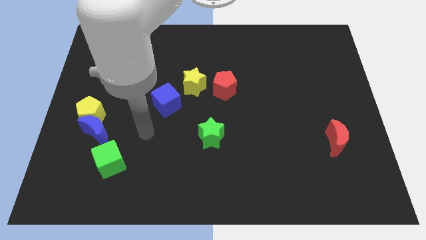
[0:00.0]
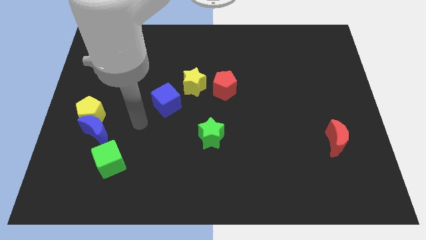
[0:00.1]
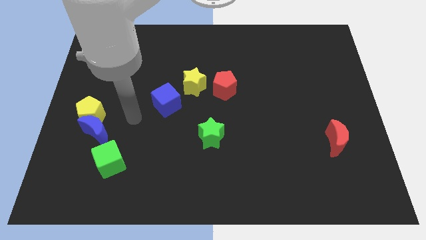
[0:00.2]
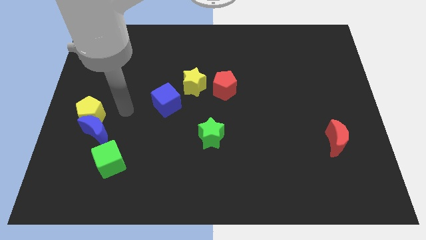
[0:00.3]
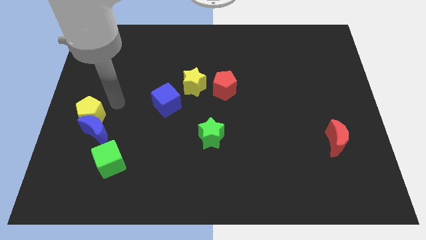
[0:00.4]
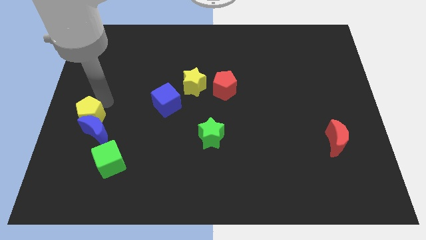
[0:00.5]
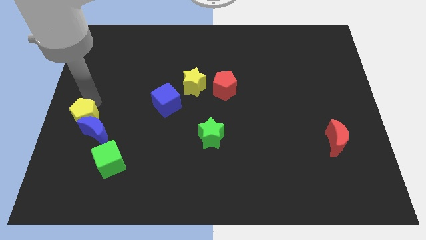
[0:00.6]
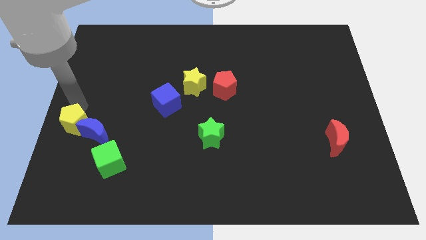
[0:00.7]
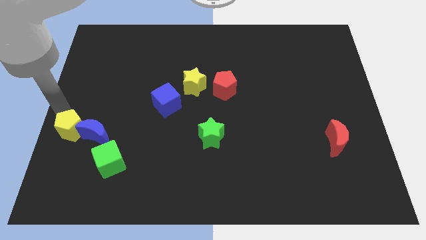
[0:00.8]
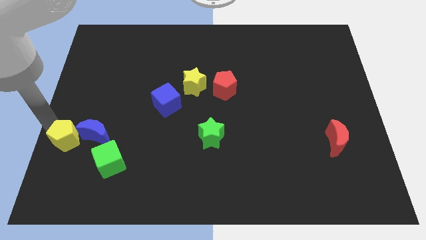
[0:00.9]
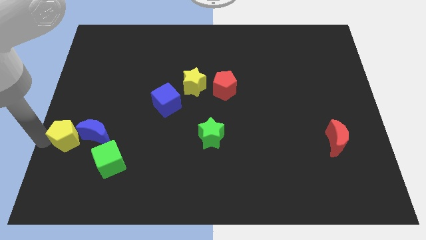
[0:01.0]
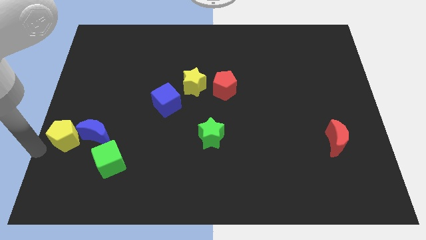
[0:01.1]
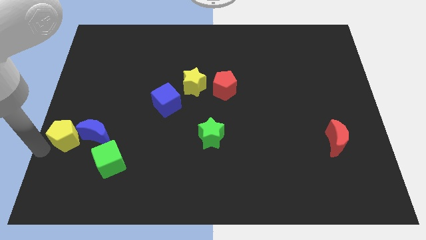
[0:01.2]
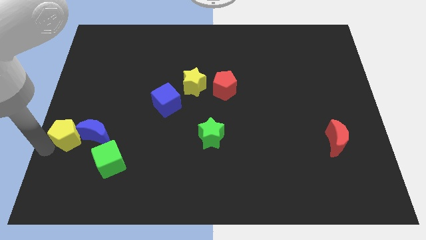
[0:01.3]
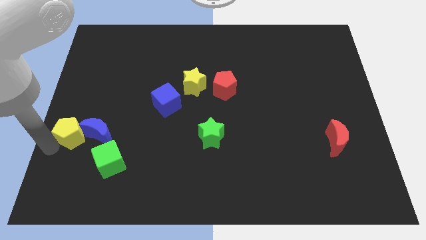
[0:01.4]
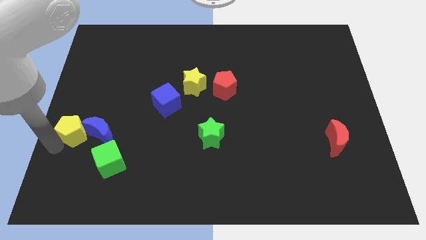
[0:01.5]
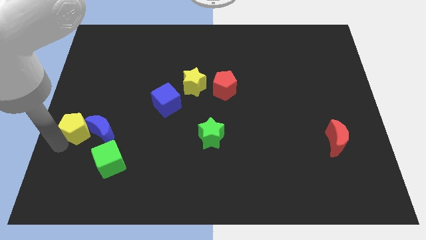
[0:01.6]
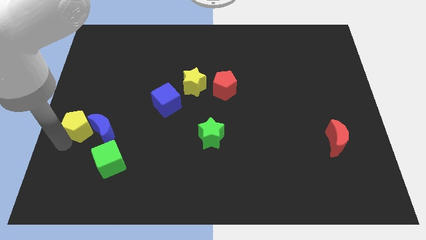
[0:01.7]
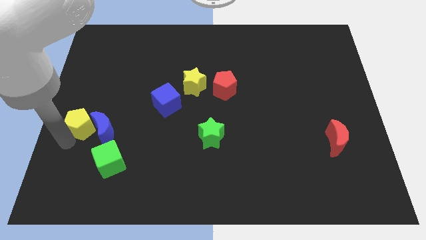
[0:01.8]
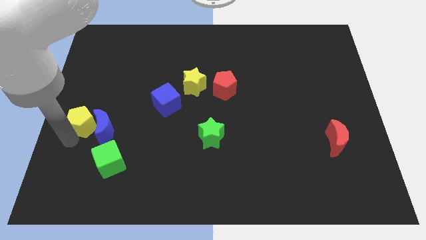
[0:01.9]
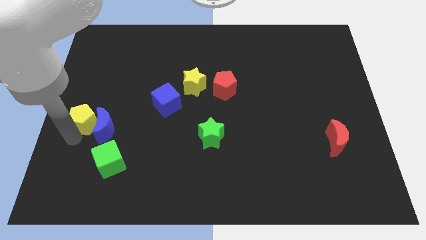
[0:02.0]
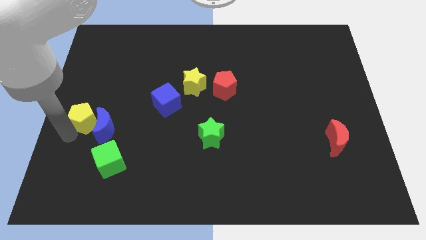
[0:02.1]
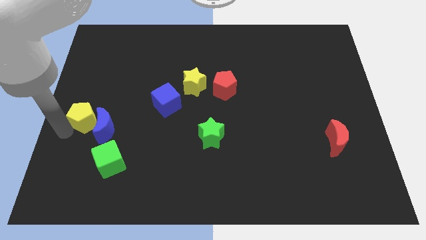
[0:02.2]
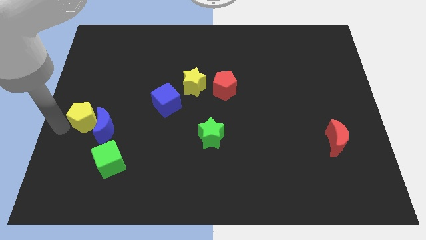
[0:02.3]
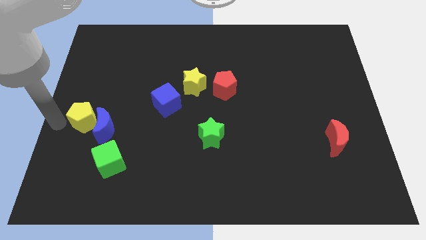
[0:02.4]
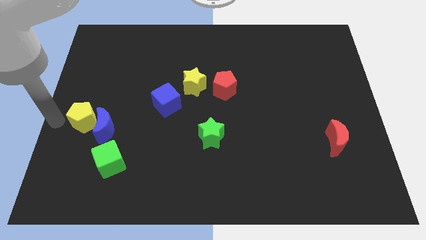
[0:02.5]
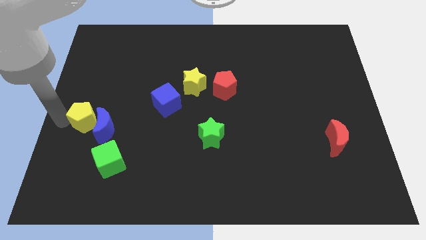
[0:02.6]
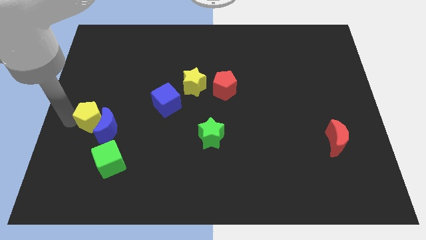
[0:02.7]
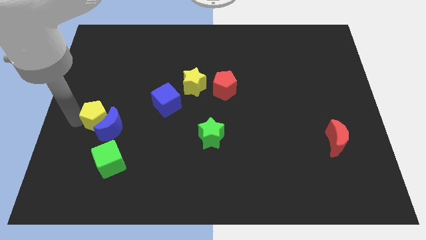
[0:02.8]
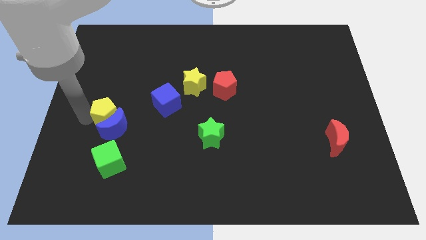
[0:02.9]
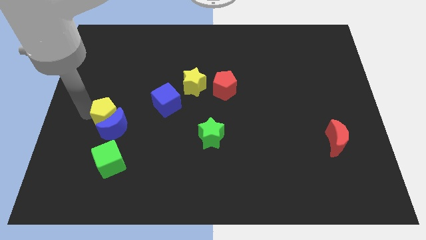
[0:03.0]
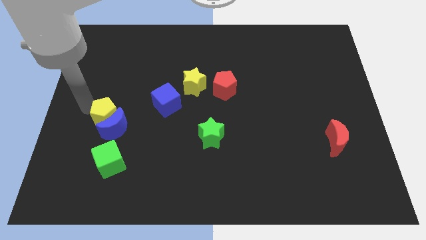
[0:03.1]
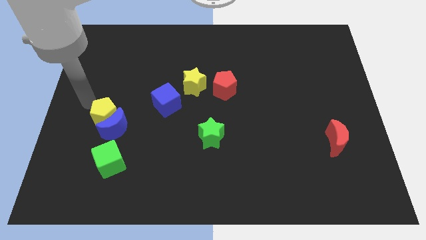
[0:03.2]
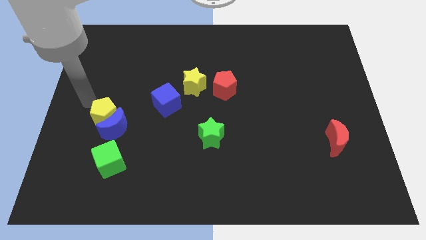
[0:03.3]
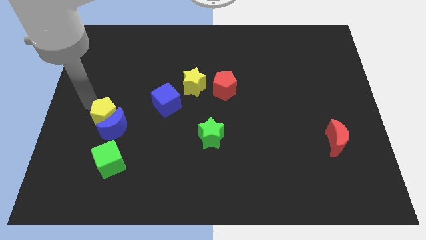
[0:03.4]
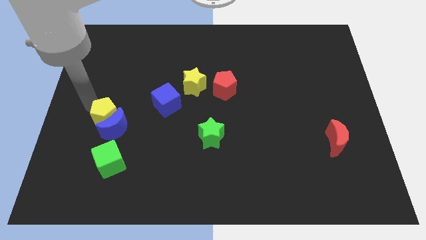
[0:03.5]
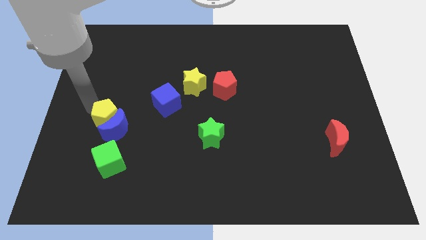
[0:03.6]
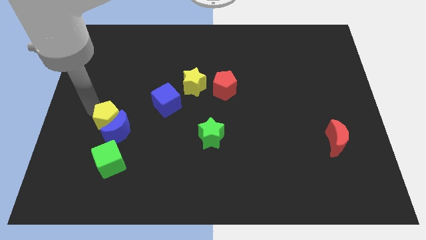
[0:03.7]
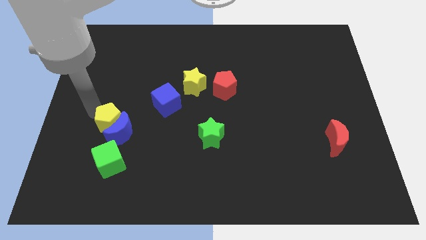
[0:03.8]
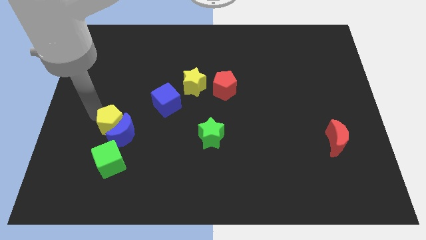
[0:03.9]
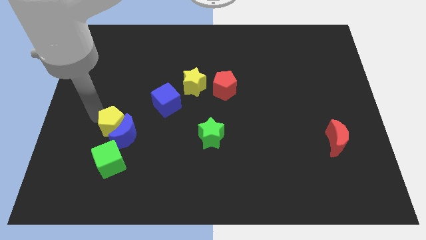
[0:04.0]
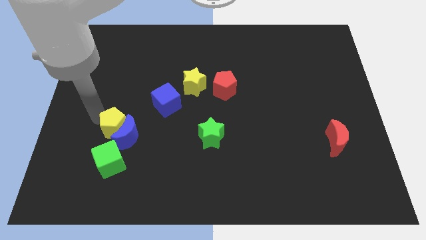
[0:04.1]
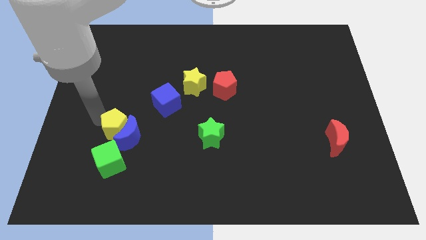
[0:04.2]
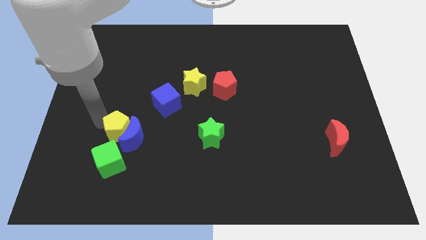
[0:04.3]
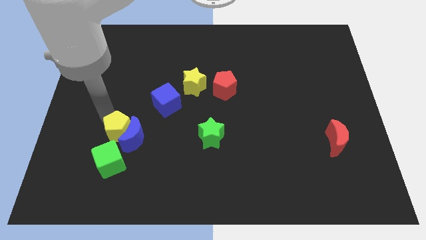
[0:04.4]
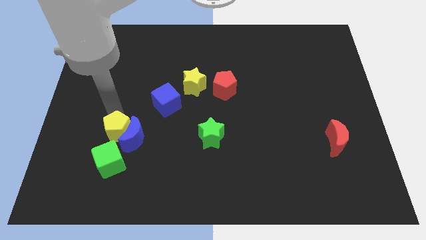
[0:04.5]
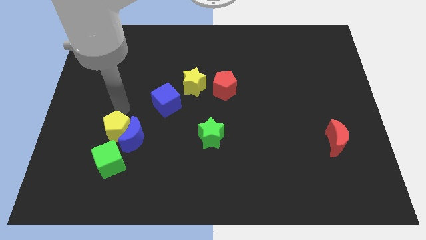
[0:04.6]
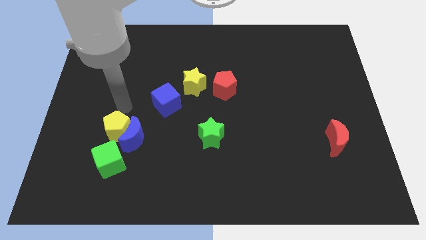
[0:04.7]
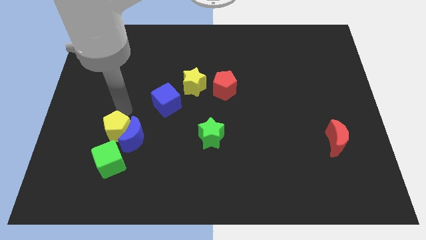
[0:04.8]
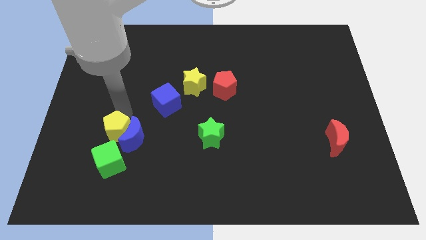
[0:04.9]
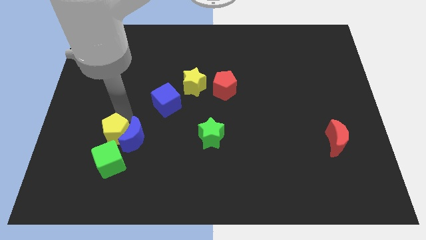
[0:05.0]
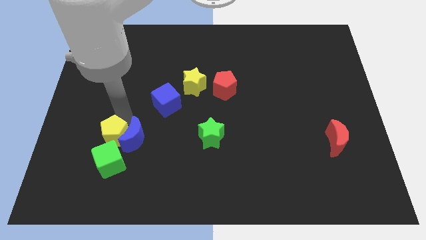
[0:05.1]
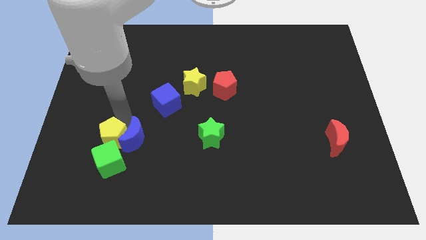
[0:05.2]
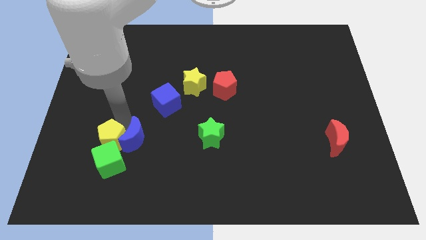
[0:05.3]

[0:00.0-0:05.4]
move the yellow pentagon next to the green cube

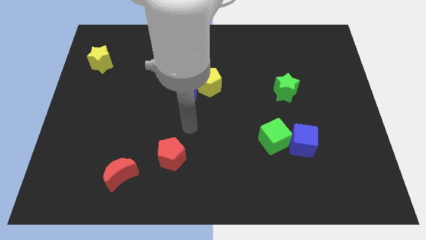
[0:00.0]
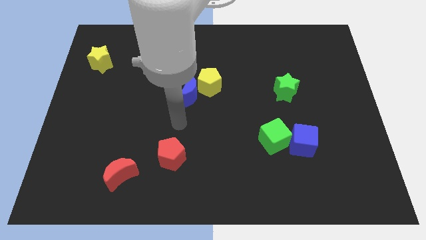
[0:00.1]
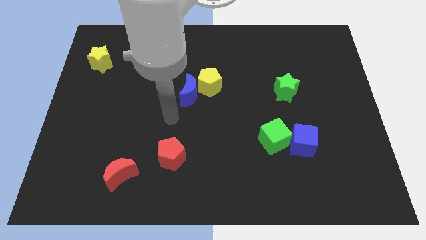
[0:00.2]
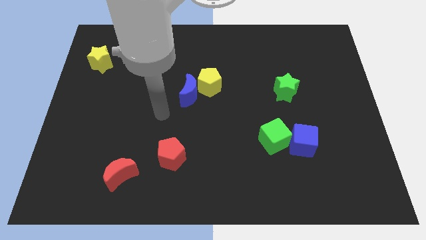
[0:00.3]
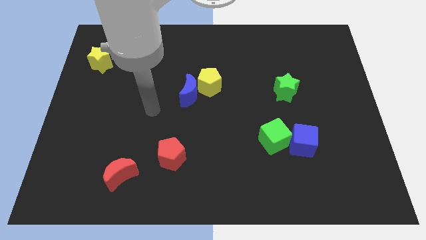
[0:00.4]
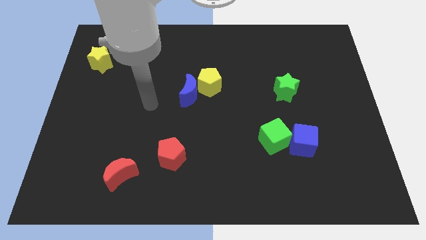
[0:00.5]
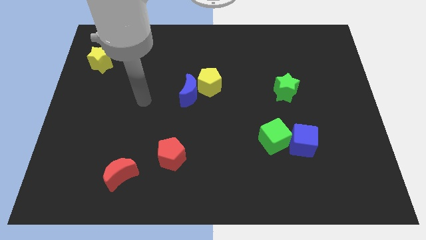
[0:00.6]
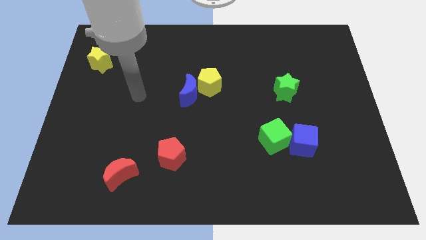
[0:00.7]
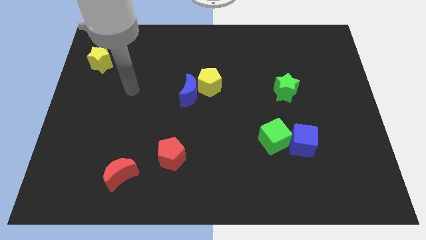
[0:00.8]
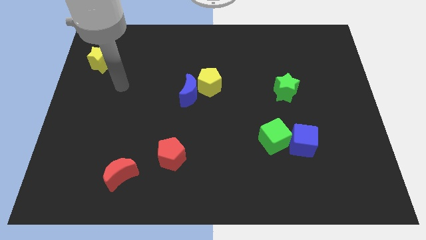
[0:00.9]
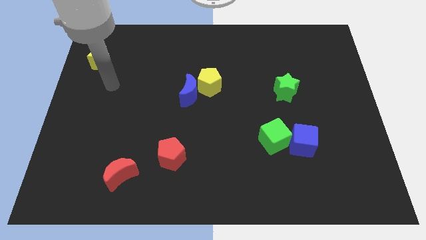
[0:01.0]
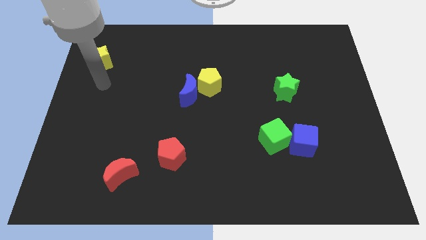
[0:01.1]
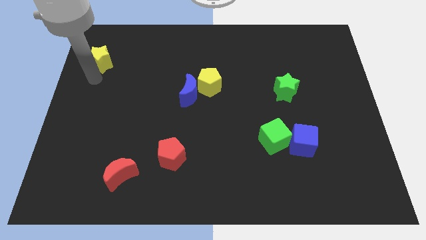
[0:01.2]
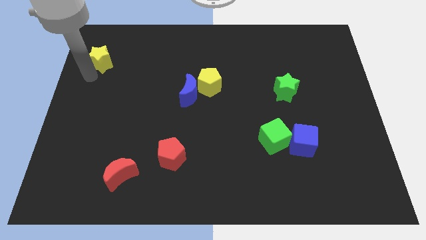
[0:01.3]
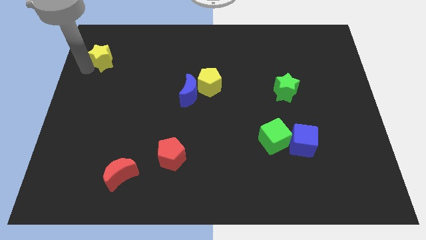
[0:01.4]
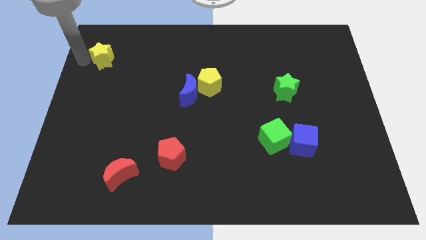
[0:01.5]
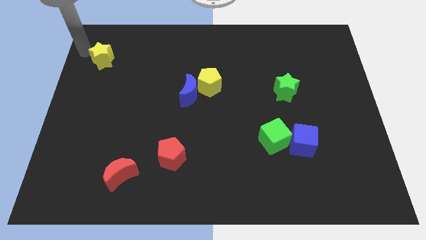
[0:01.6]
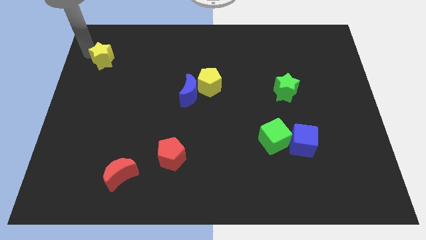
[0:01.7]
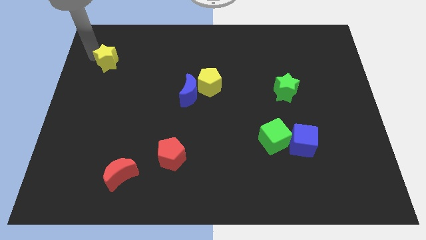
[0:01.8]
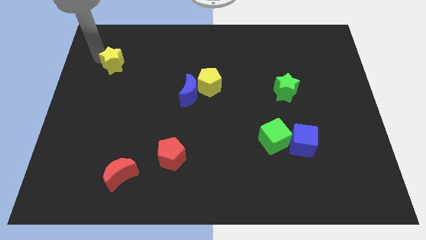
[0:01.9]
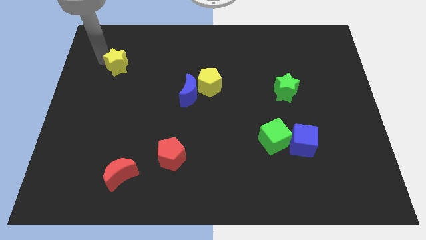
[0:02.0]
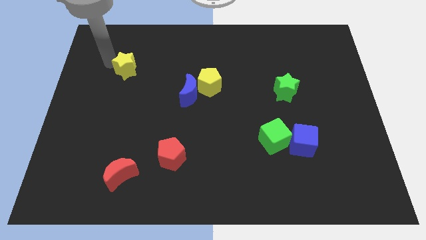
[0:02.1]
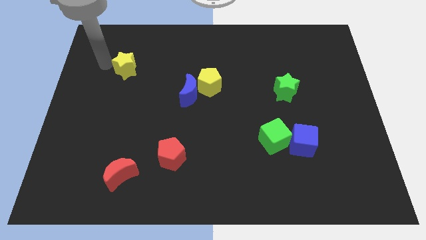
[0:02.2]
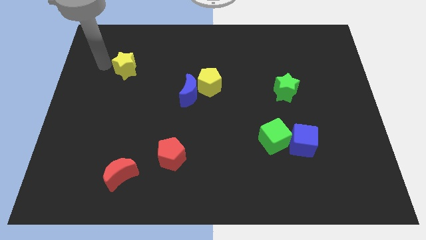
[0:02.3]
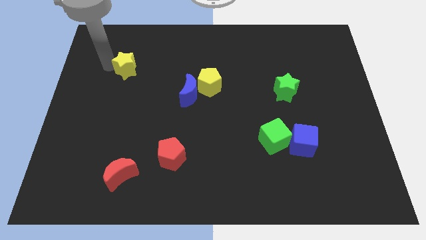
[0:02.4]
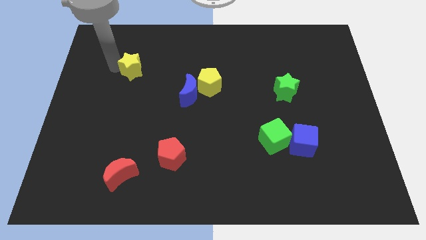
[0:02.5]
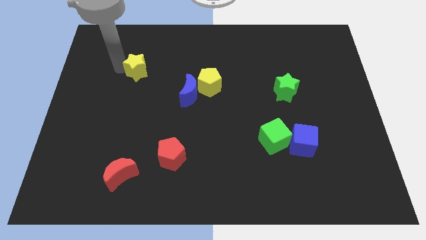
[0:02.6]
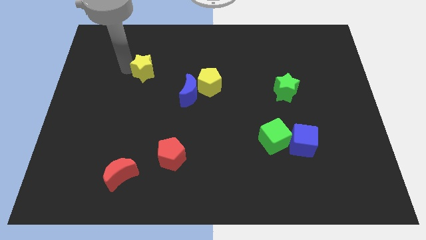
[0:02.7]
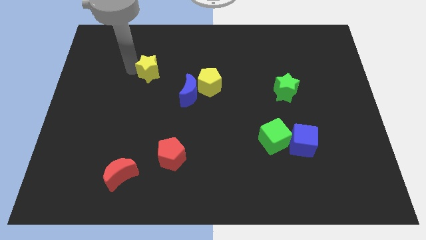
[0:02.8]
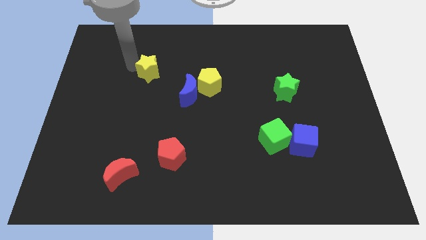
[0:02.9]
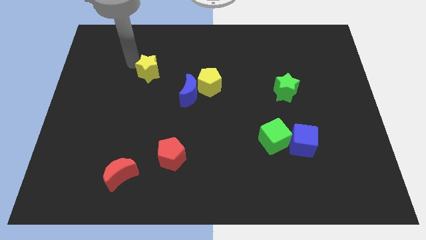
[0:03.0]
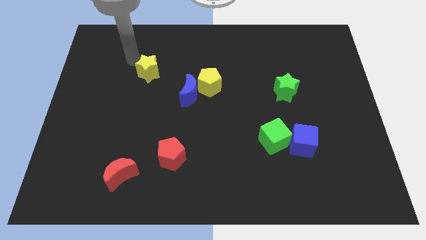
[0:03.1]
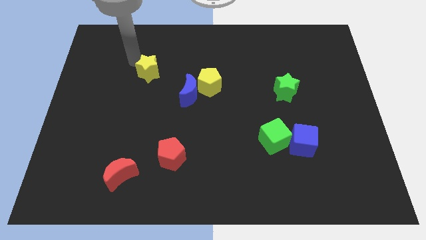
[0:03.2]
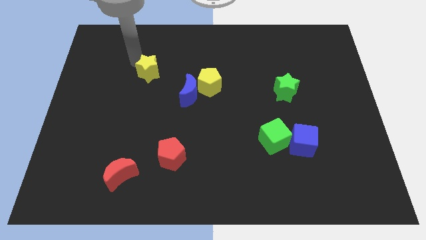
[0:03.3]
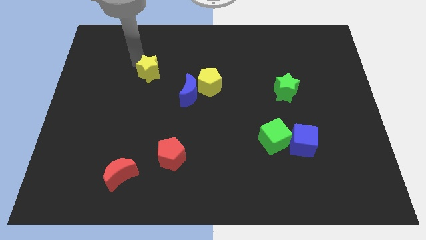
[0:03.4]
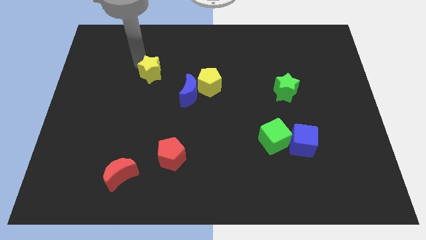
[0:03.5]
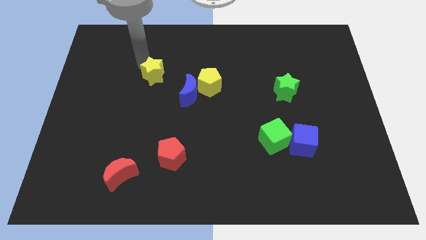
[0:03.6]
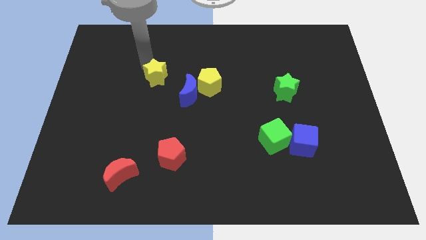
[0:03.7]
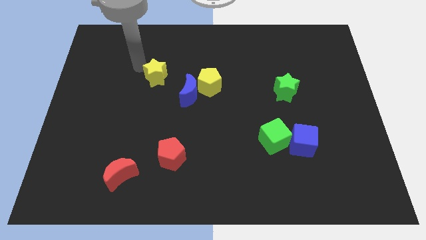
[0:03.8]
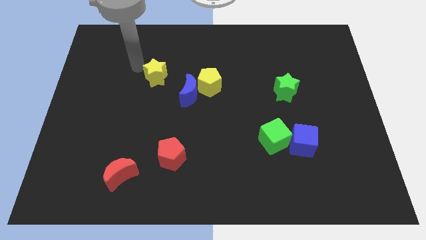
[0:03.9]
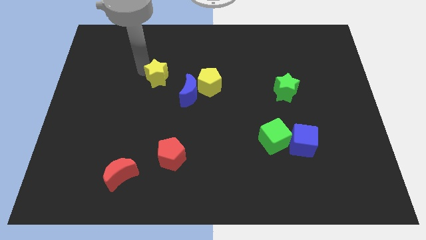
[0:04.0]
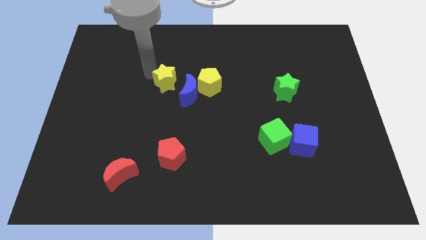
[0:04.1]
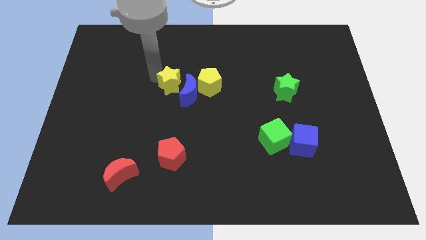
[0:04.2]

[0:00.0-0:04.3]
put the yellow star towards the blue moon
